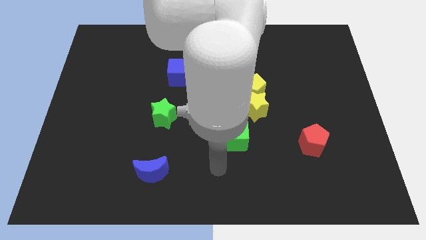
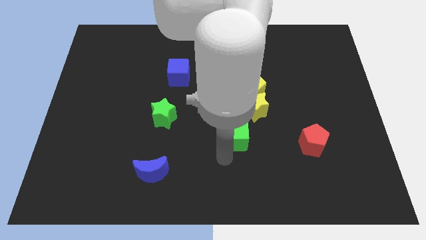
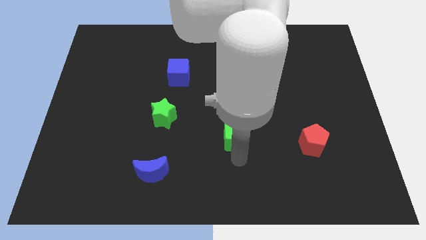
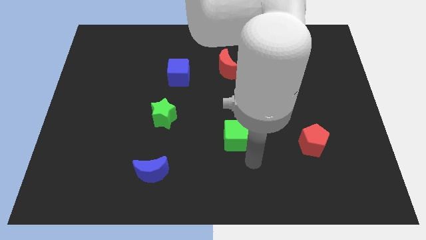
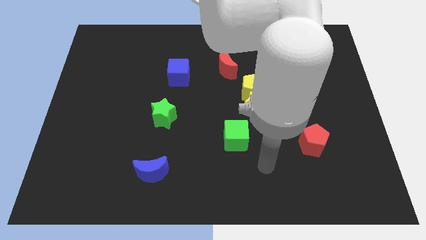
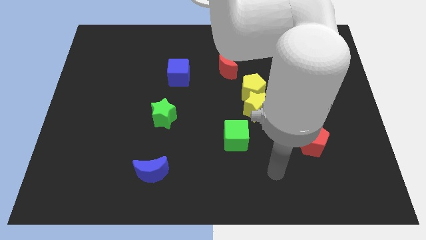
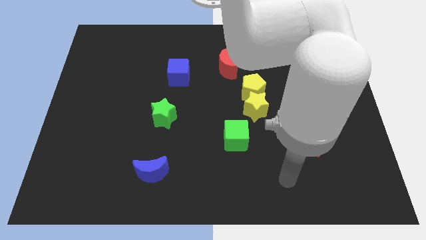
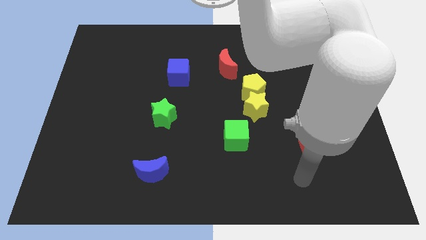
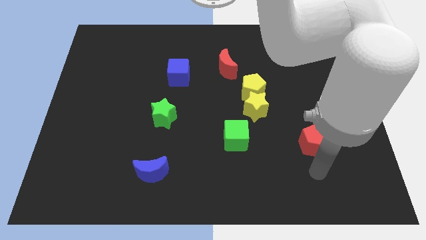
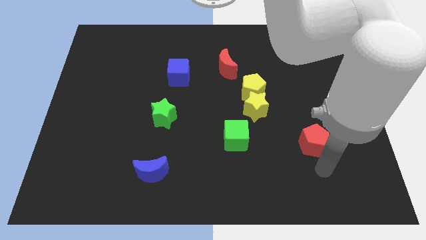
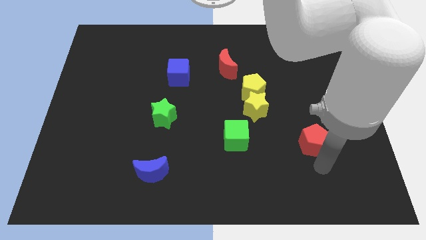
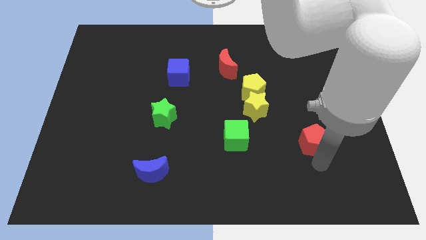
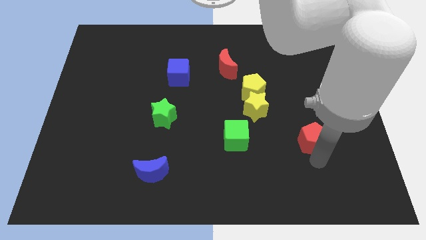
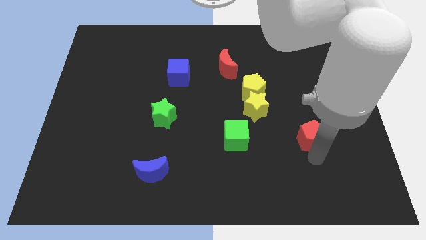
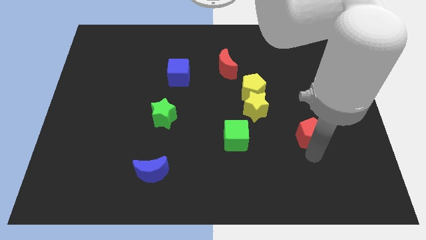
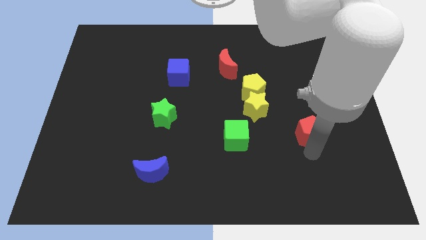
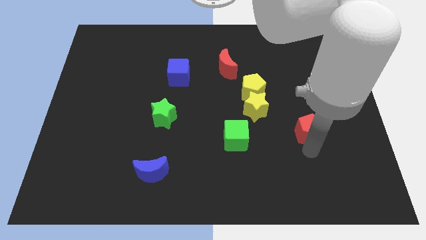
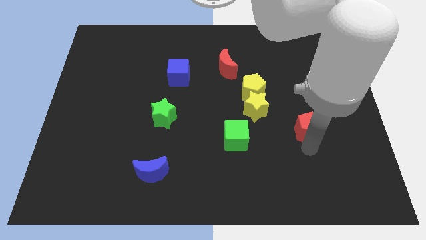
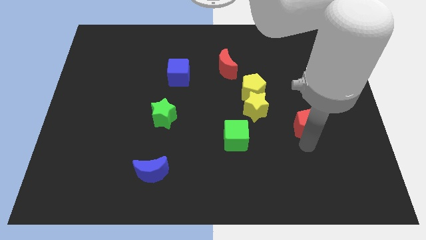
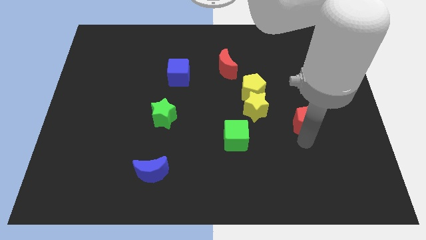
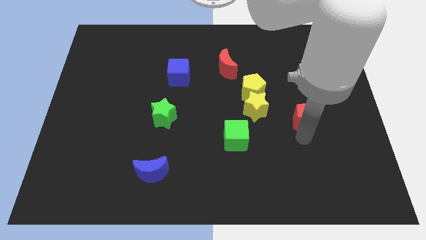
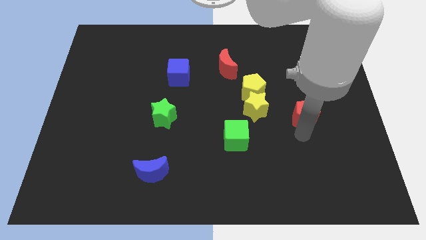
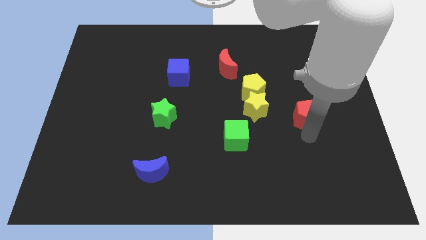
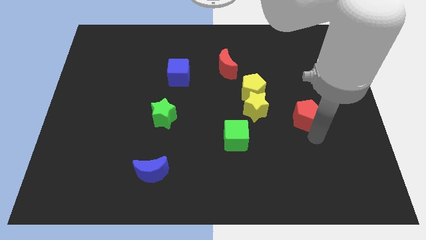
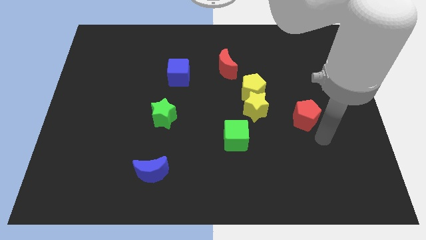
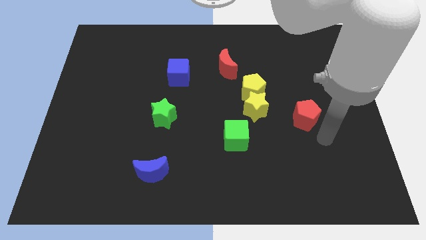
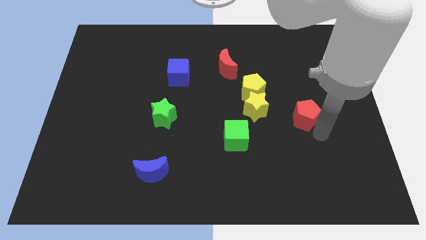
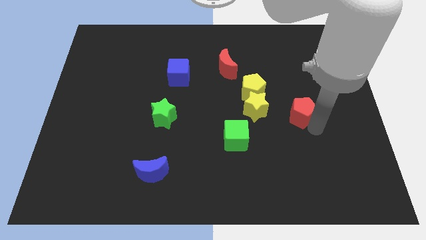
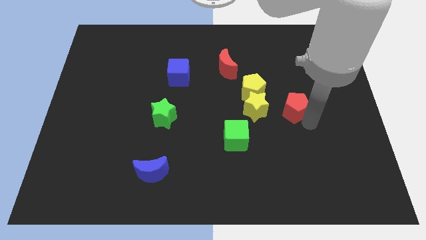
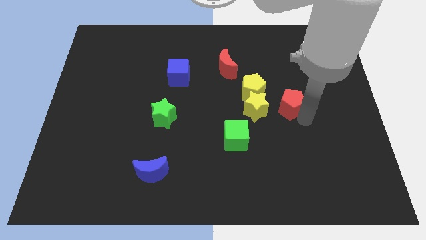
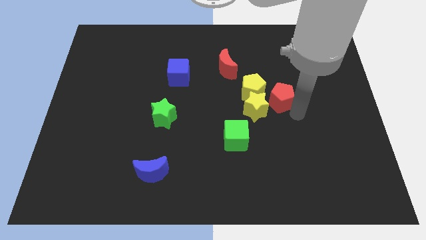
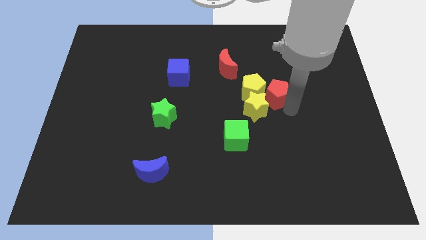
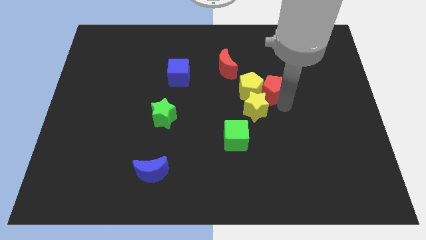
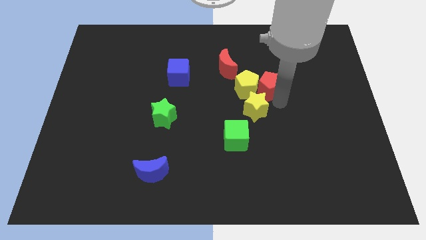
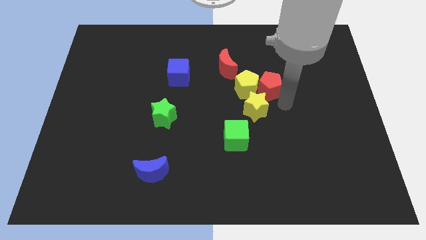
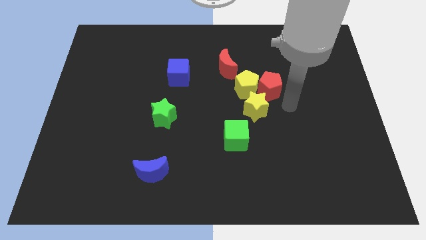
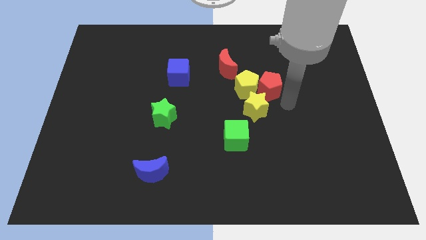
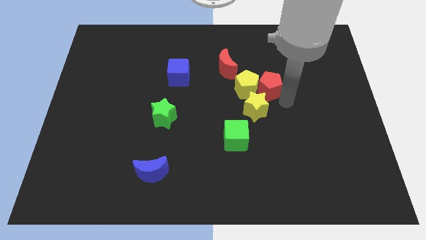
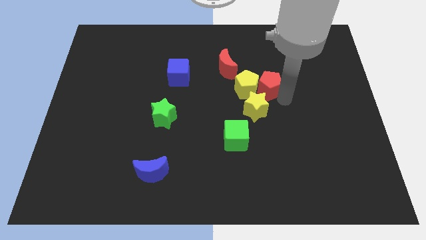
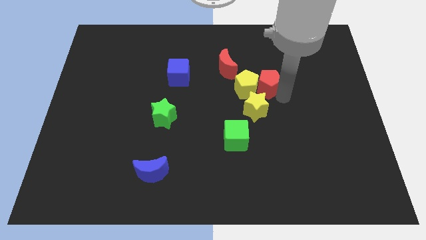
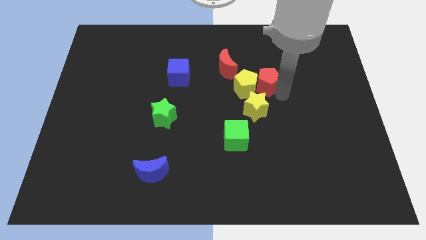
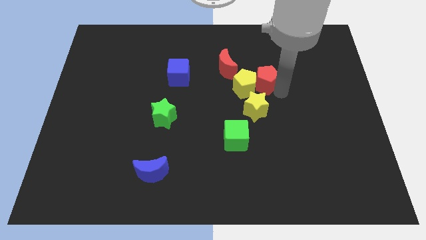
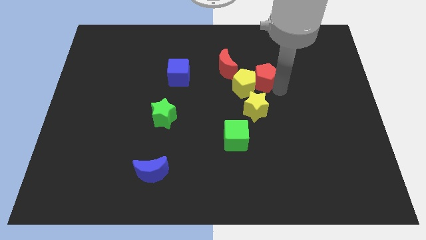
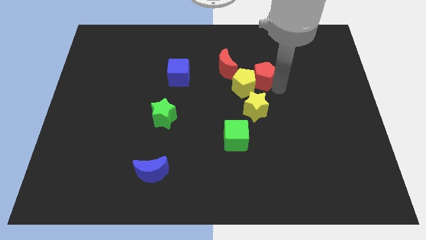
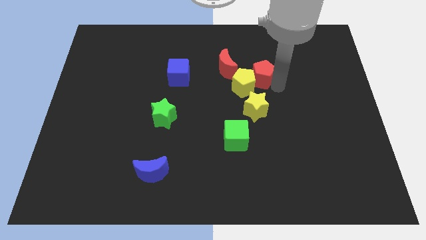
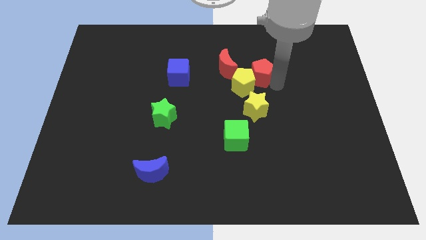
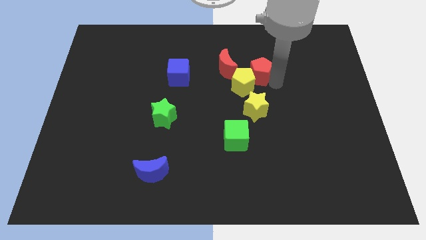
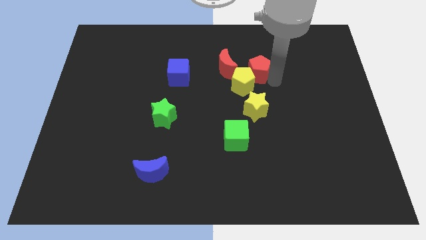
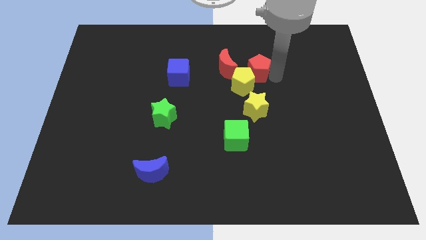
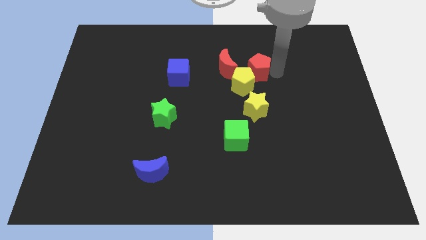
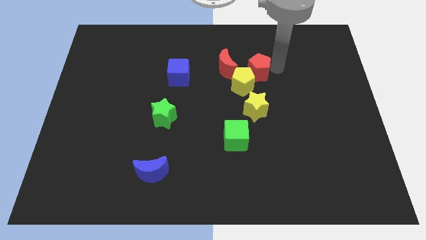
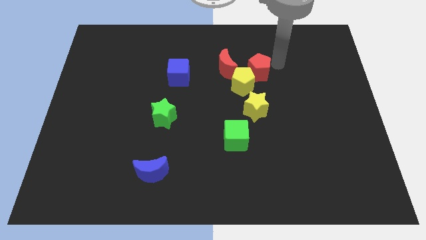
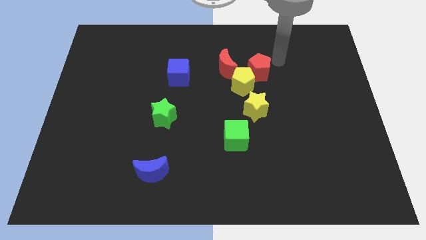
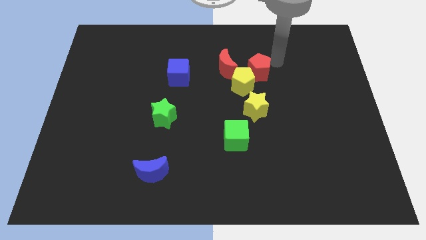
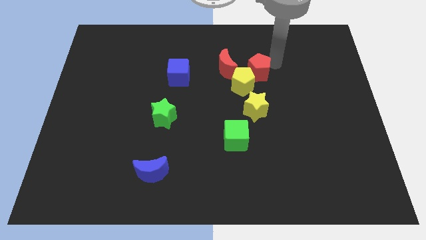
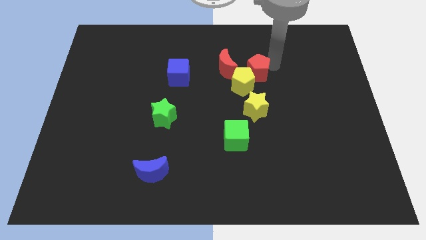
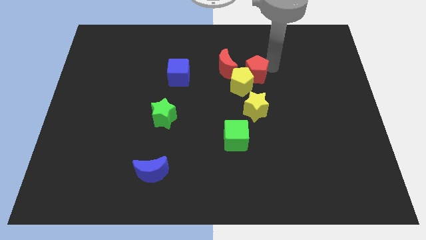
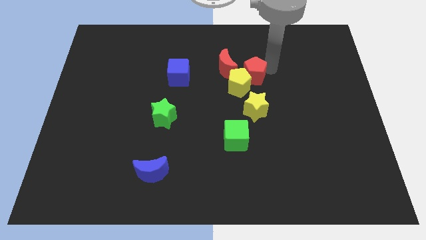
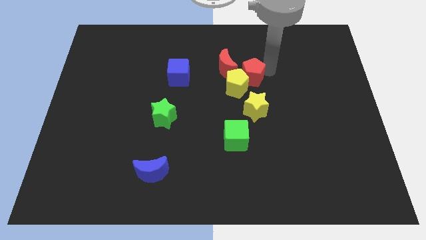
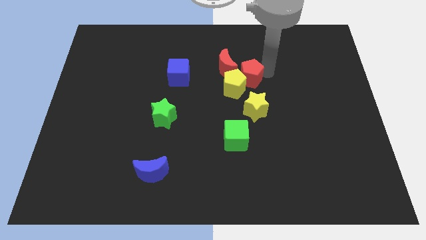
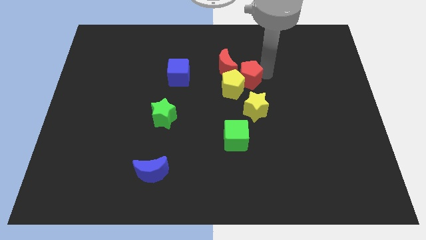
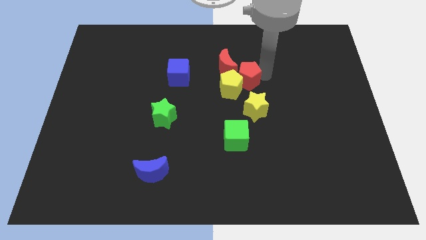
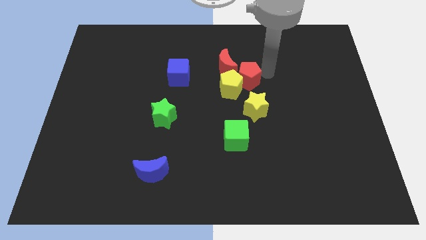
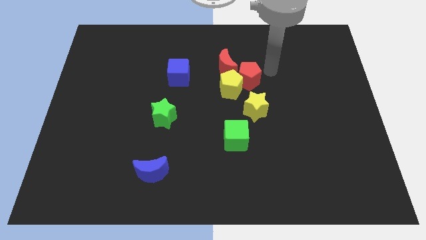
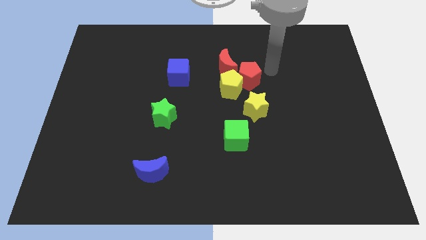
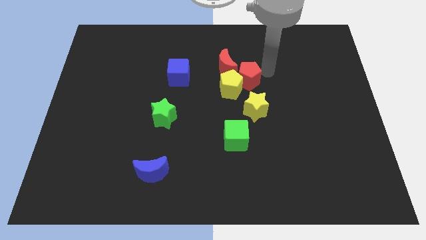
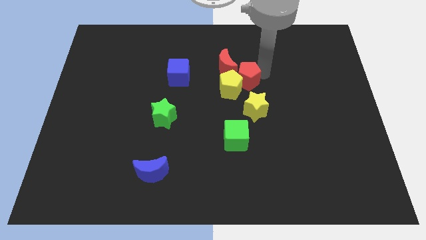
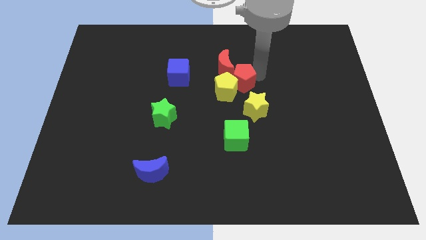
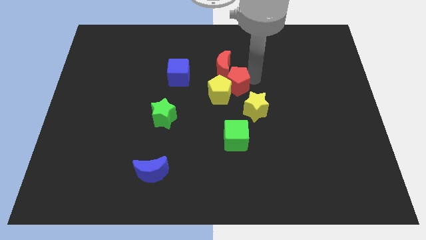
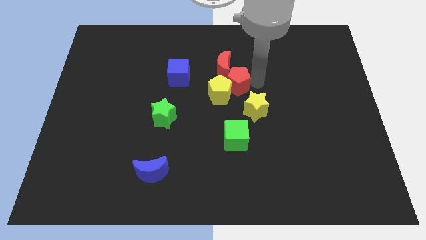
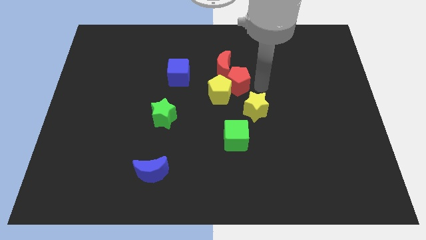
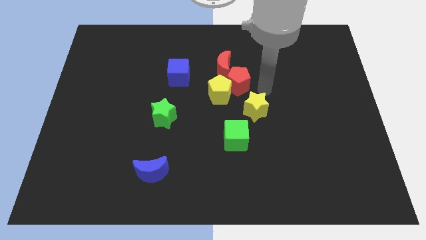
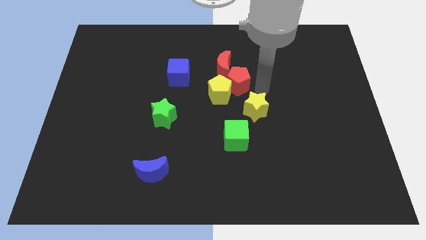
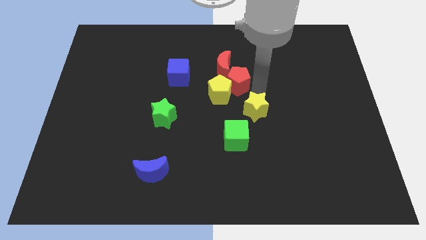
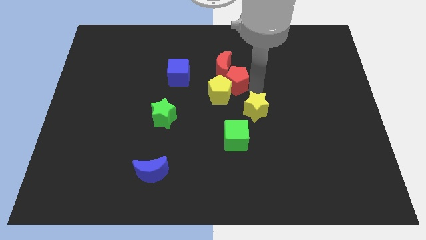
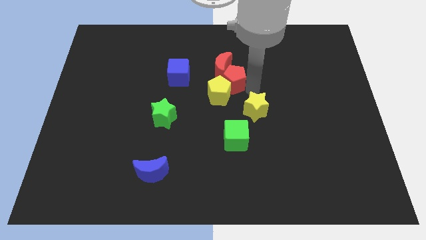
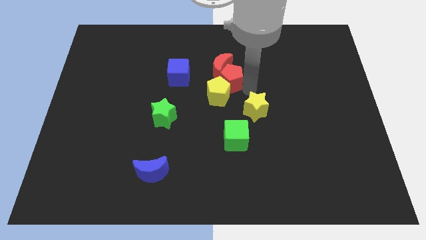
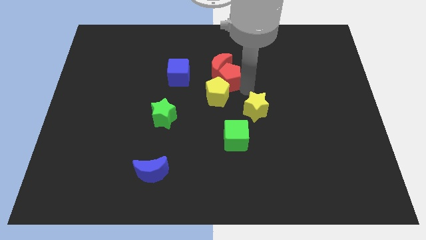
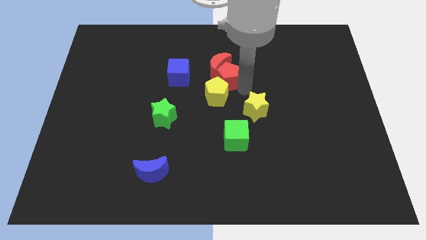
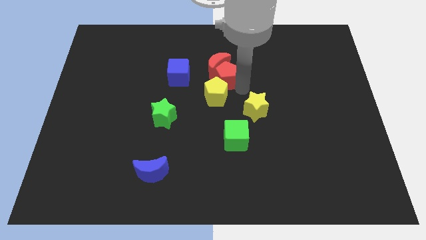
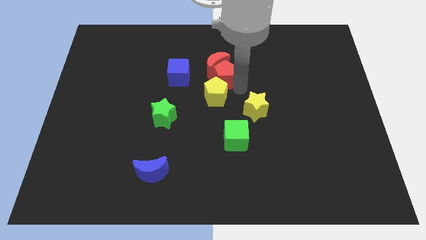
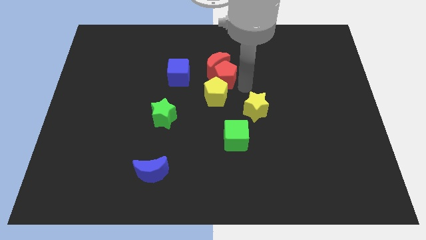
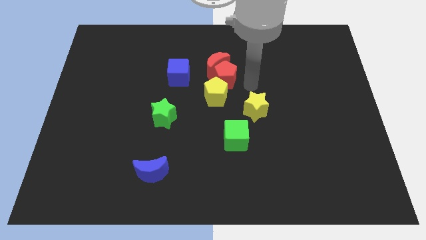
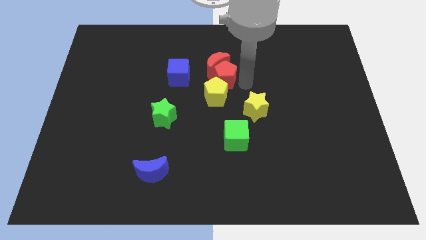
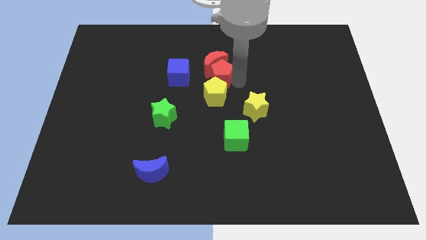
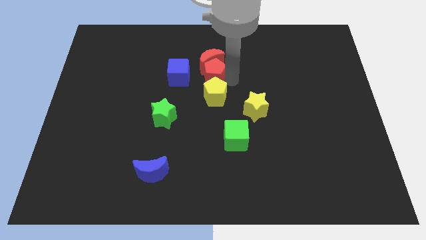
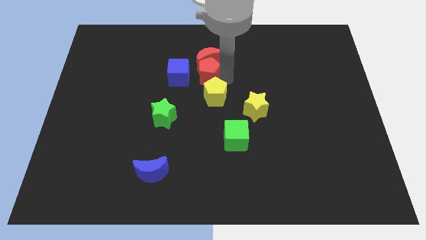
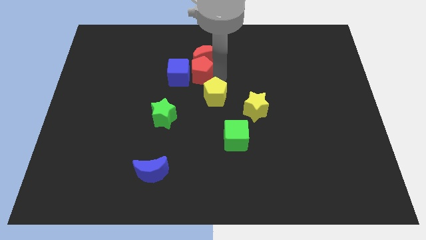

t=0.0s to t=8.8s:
put the red pentagon next to the blue cube
